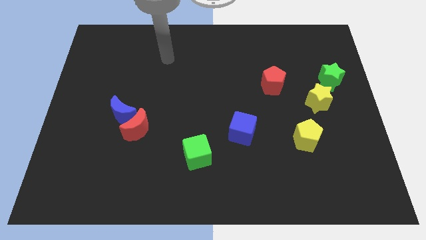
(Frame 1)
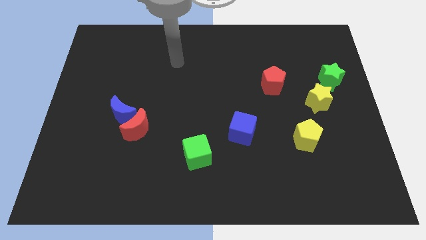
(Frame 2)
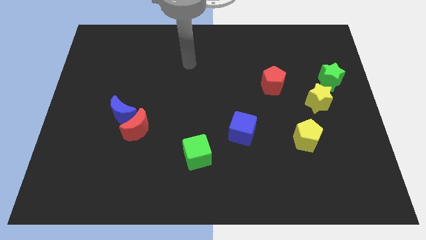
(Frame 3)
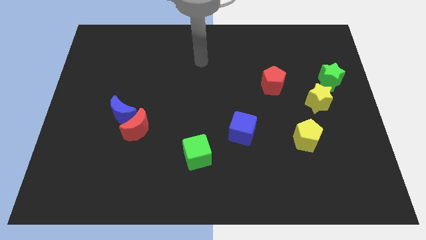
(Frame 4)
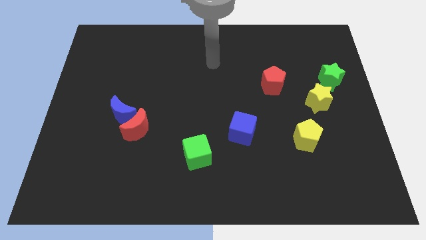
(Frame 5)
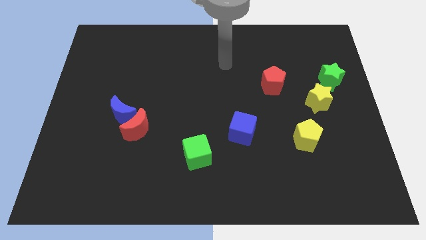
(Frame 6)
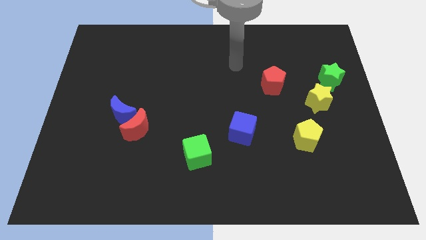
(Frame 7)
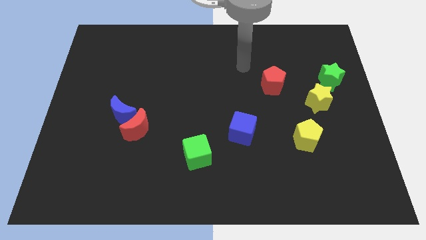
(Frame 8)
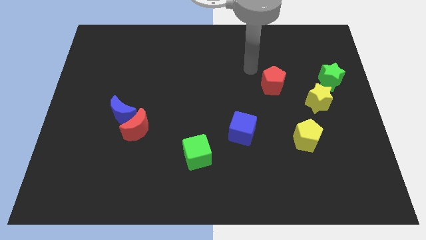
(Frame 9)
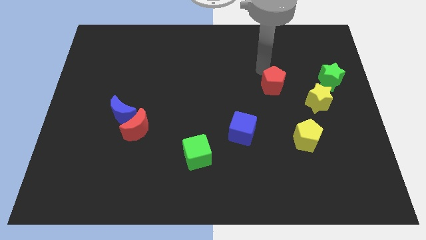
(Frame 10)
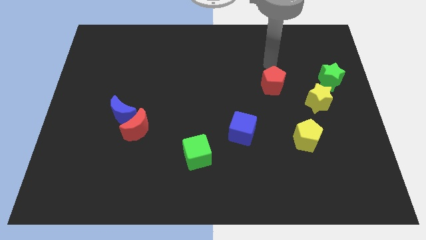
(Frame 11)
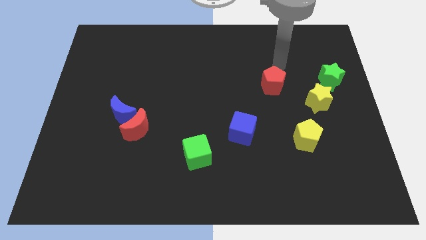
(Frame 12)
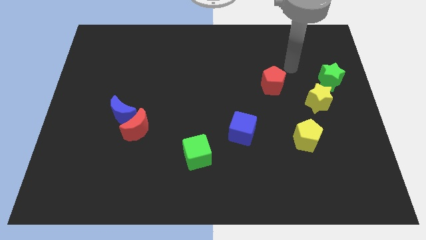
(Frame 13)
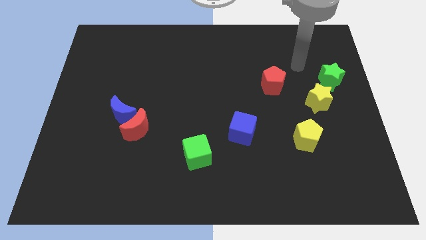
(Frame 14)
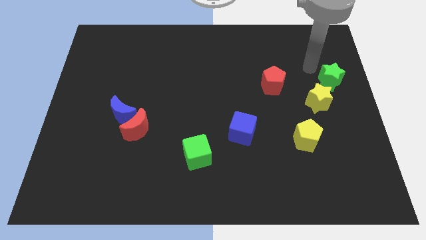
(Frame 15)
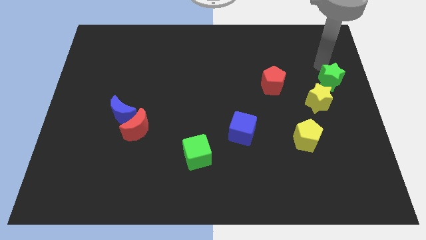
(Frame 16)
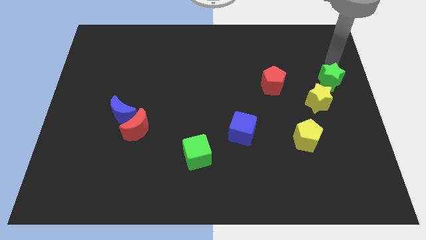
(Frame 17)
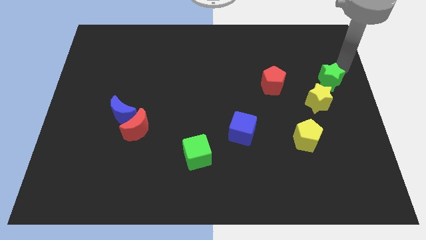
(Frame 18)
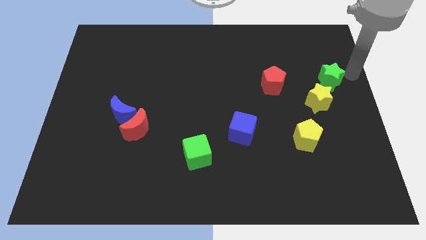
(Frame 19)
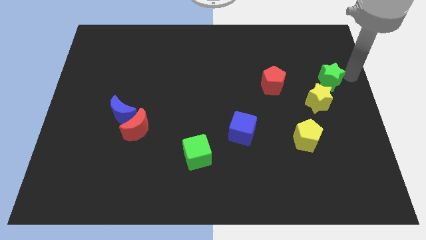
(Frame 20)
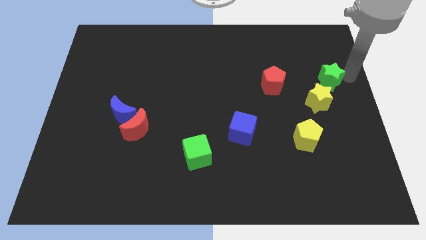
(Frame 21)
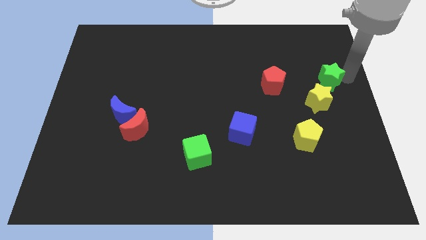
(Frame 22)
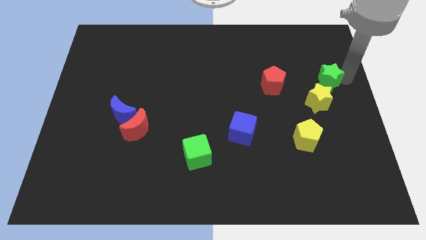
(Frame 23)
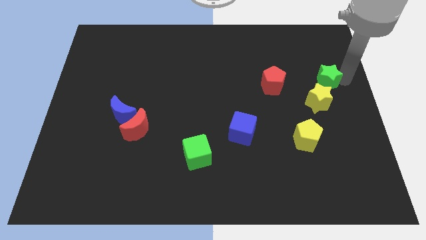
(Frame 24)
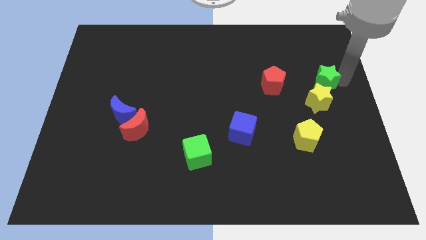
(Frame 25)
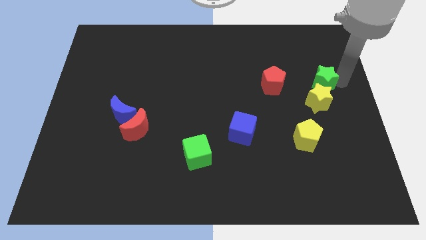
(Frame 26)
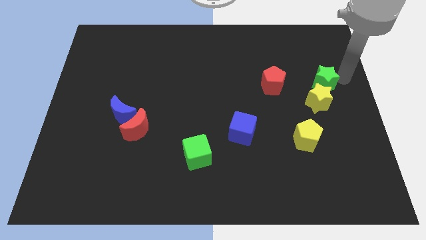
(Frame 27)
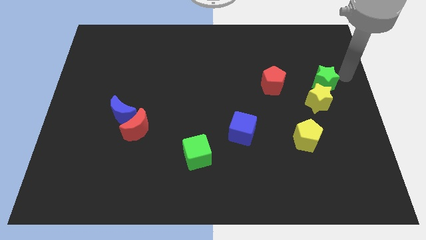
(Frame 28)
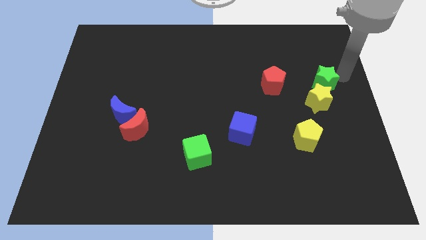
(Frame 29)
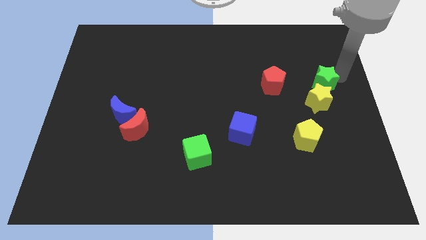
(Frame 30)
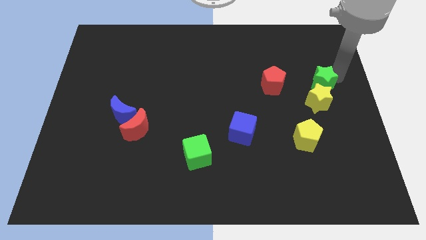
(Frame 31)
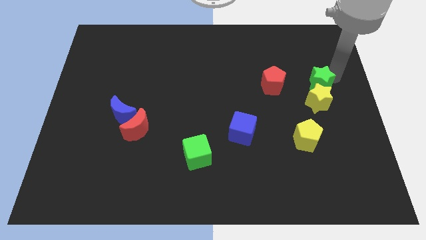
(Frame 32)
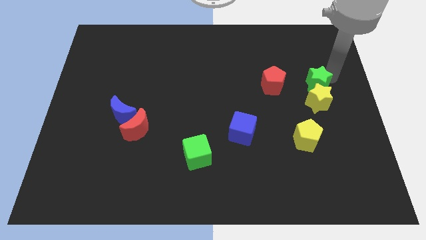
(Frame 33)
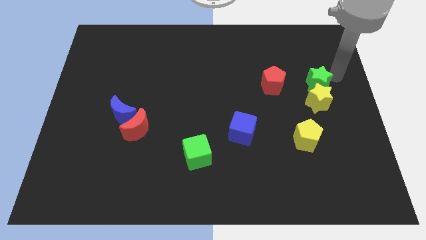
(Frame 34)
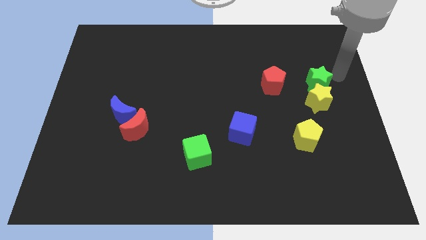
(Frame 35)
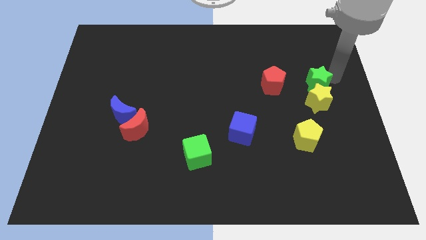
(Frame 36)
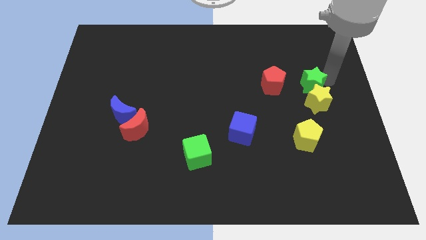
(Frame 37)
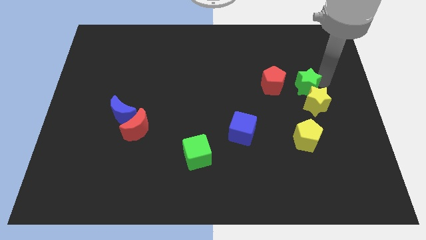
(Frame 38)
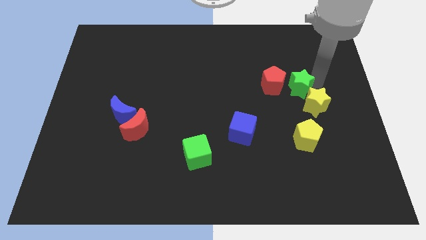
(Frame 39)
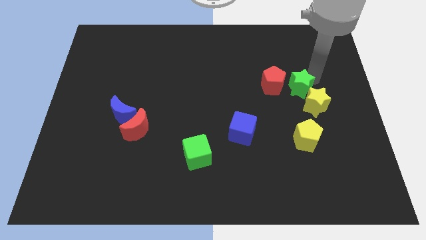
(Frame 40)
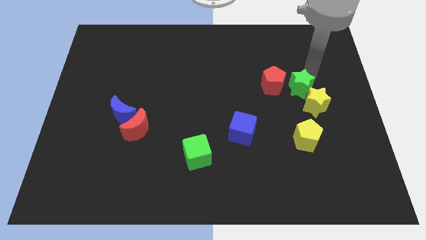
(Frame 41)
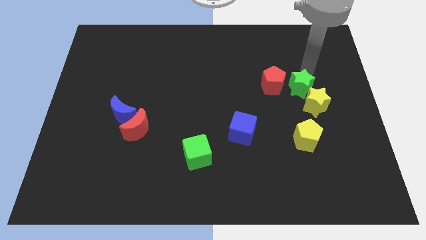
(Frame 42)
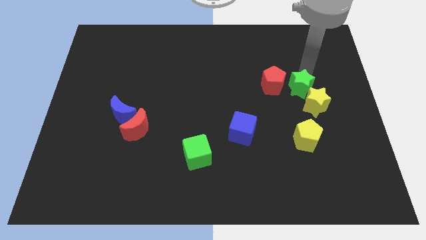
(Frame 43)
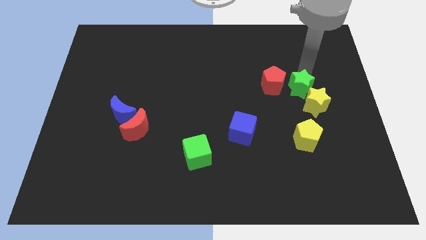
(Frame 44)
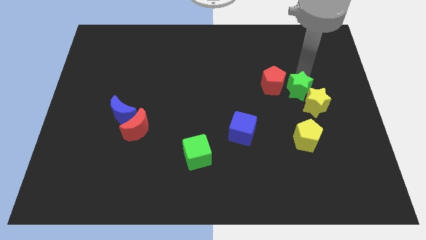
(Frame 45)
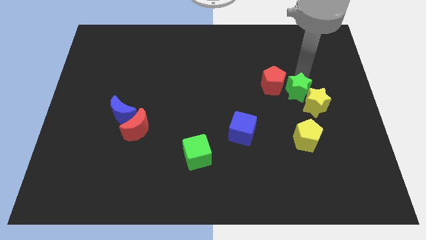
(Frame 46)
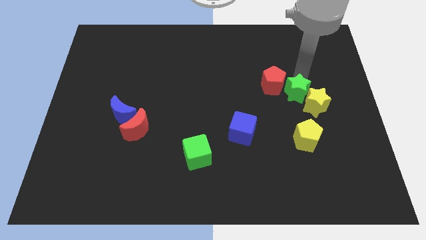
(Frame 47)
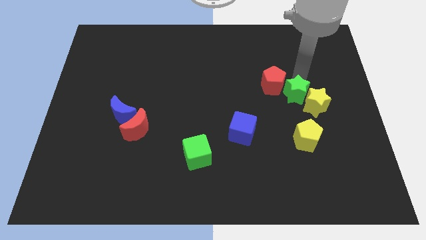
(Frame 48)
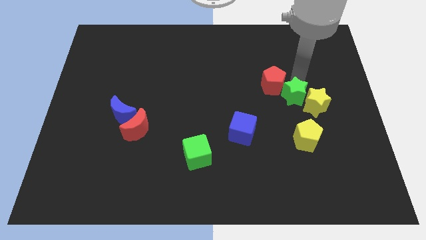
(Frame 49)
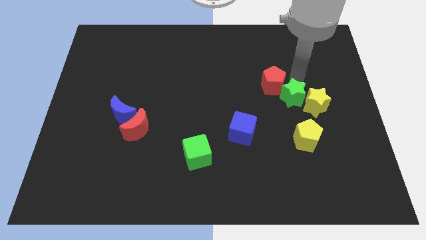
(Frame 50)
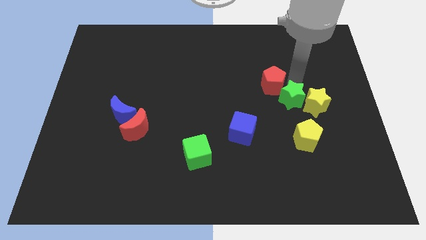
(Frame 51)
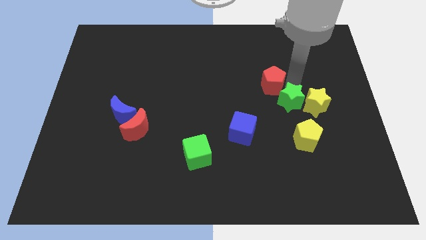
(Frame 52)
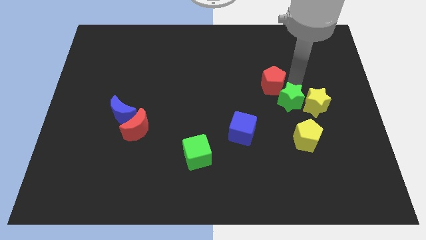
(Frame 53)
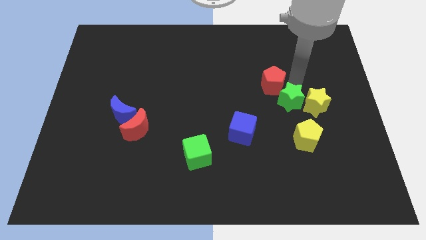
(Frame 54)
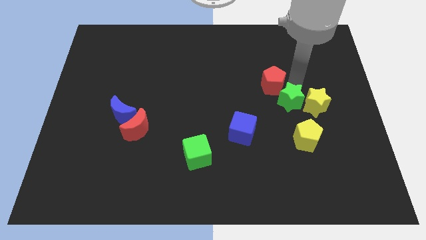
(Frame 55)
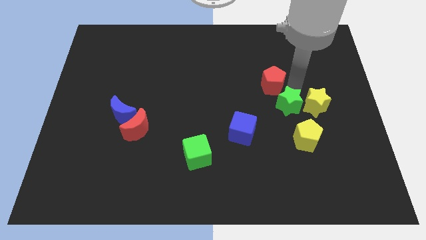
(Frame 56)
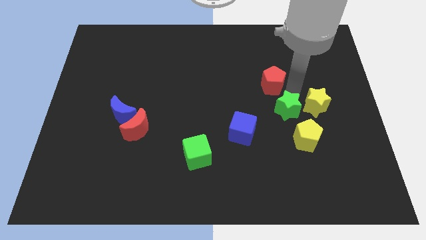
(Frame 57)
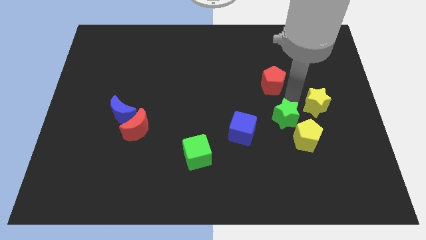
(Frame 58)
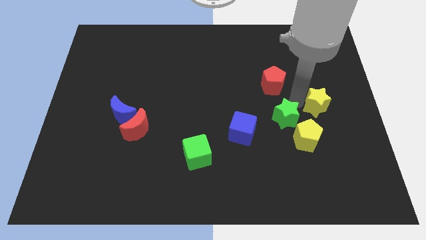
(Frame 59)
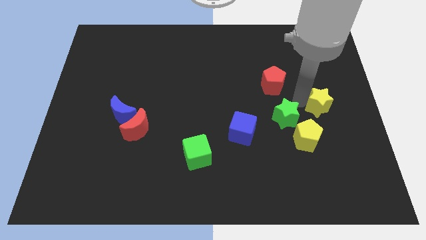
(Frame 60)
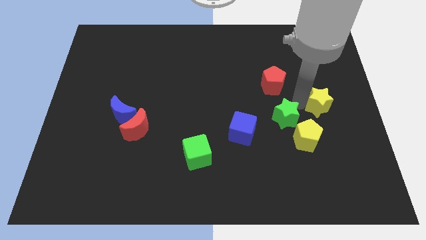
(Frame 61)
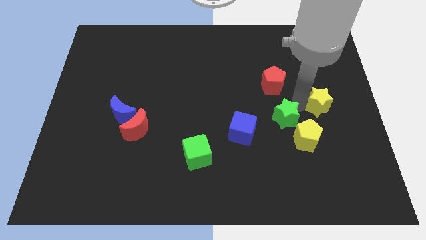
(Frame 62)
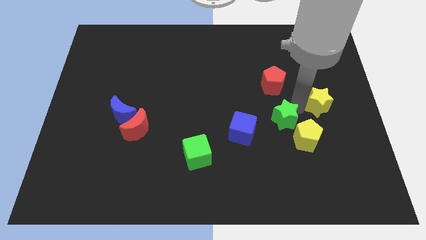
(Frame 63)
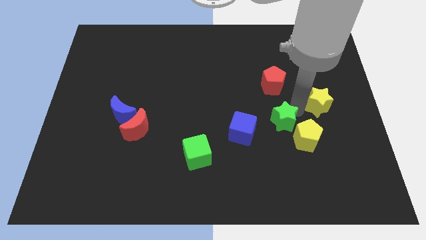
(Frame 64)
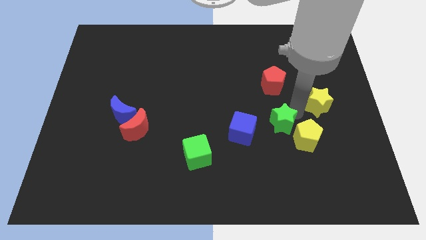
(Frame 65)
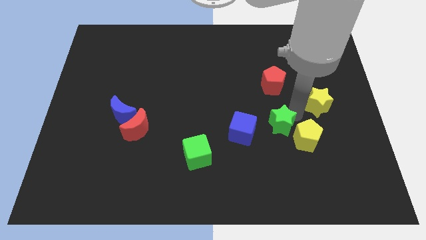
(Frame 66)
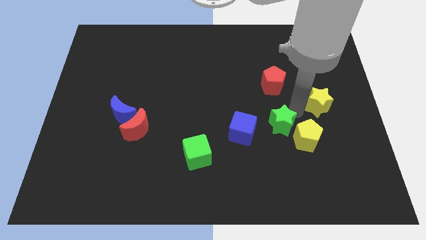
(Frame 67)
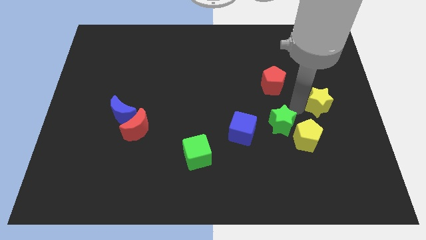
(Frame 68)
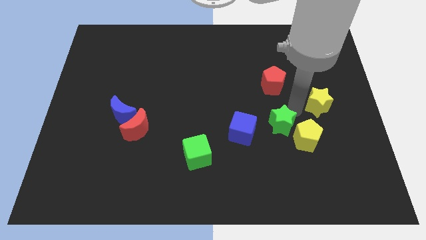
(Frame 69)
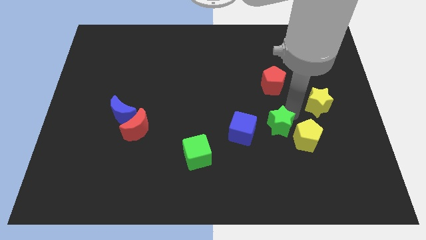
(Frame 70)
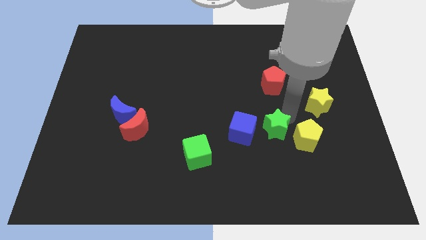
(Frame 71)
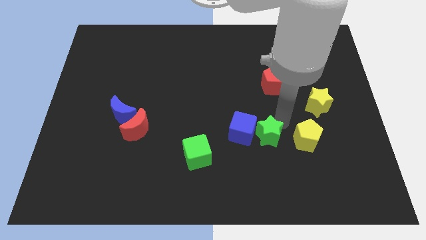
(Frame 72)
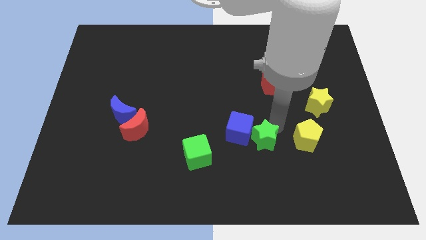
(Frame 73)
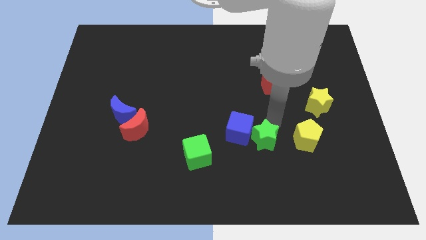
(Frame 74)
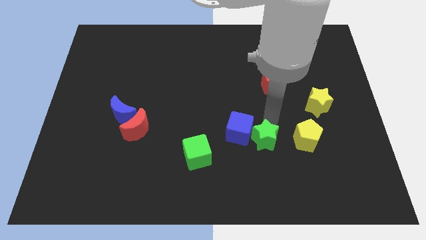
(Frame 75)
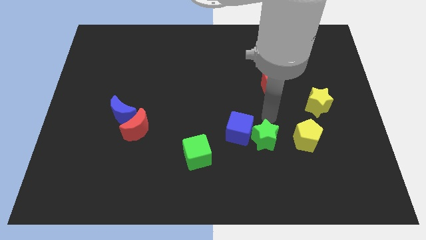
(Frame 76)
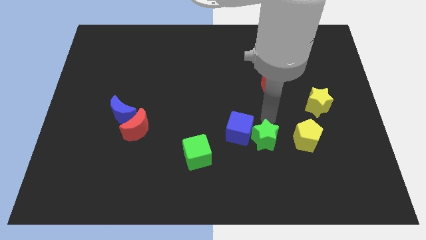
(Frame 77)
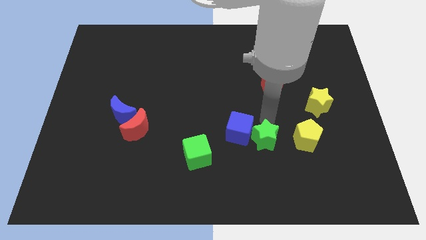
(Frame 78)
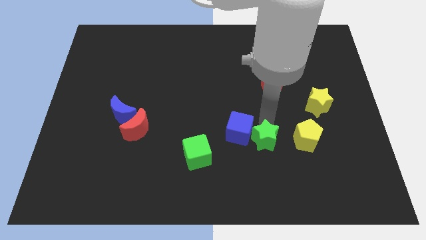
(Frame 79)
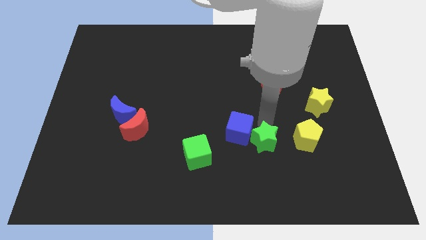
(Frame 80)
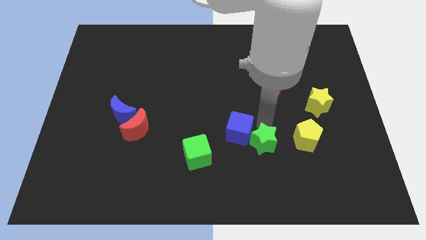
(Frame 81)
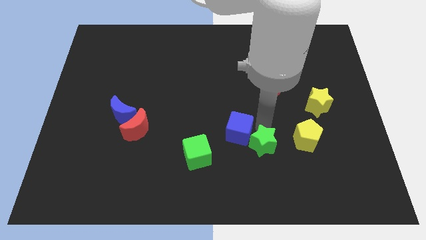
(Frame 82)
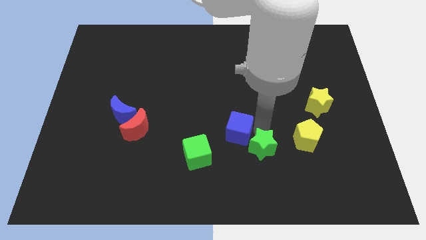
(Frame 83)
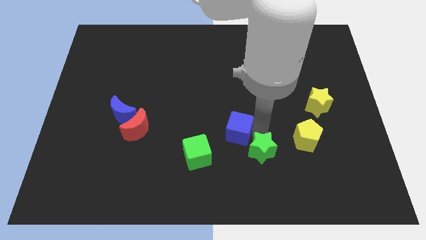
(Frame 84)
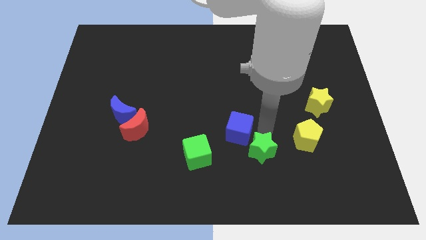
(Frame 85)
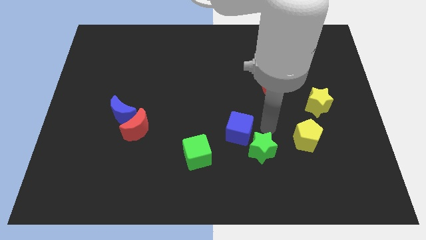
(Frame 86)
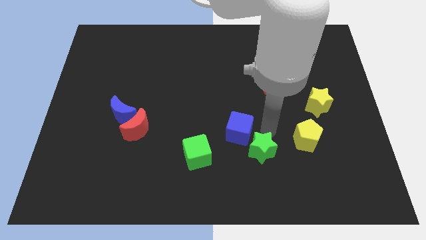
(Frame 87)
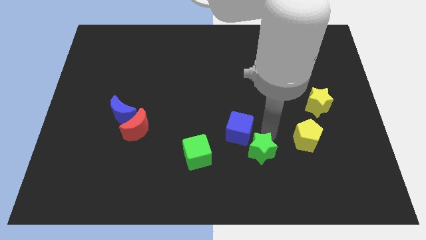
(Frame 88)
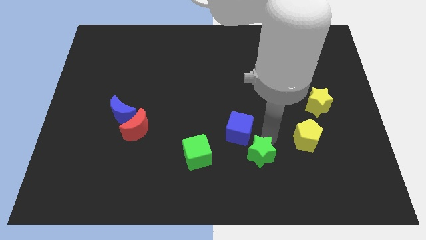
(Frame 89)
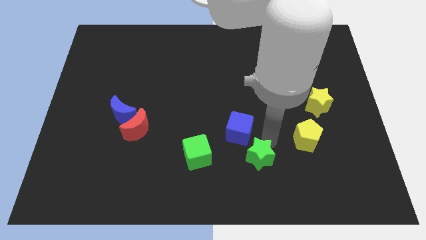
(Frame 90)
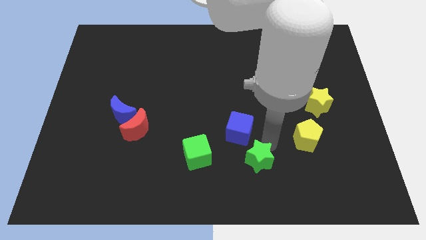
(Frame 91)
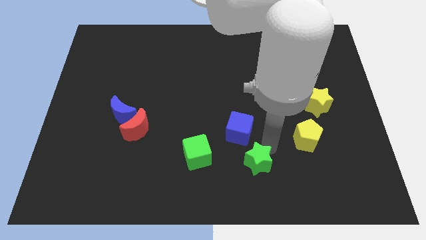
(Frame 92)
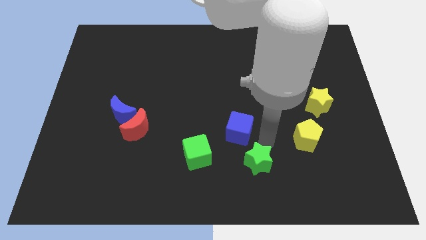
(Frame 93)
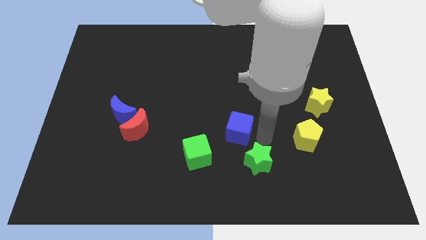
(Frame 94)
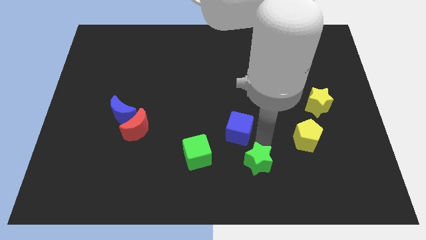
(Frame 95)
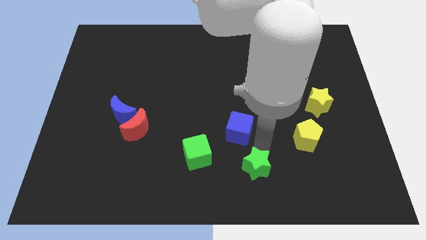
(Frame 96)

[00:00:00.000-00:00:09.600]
move the green star to the bottom
